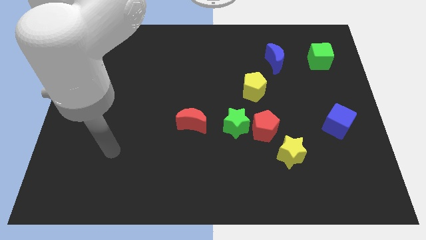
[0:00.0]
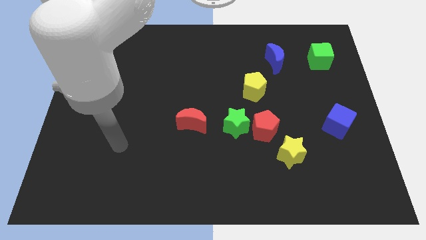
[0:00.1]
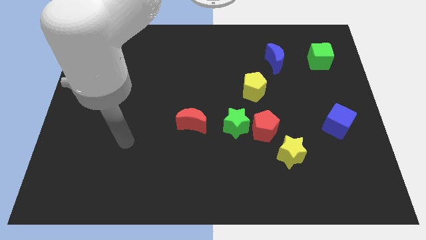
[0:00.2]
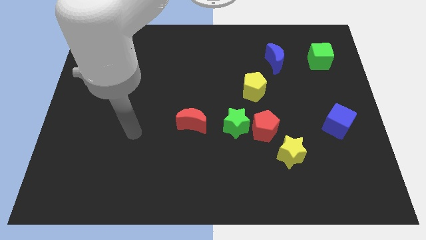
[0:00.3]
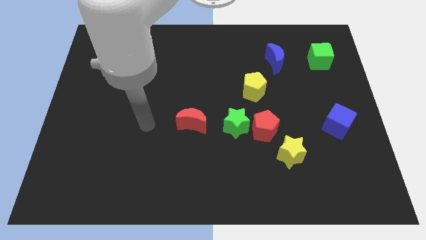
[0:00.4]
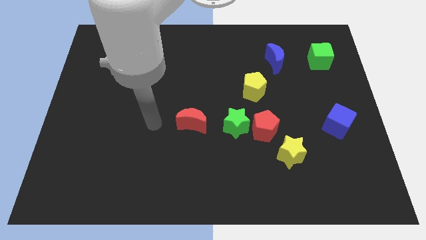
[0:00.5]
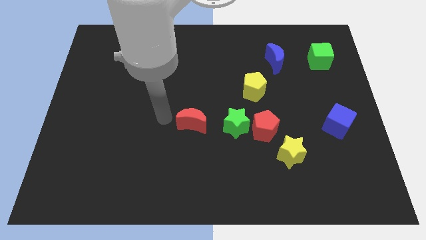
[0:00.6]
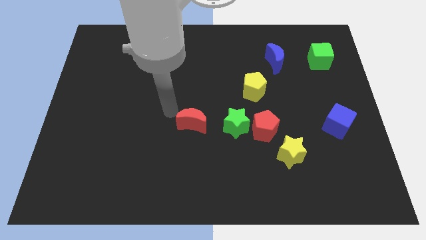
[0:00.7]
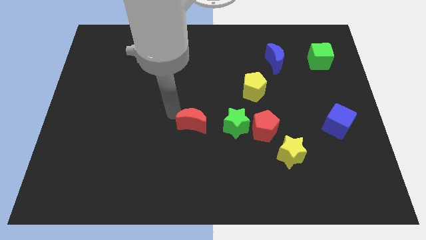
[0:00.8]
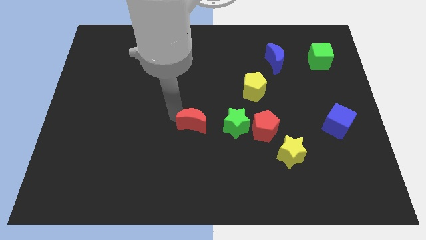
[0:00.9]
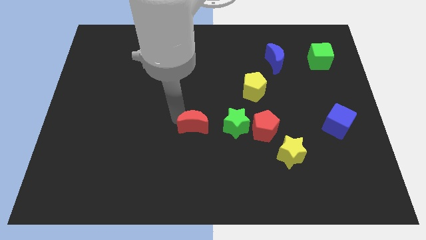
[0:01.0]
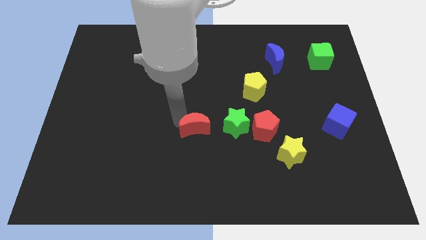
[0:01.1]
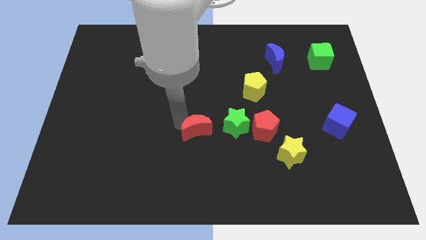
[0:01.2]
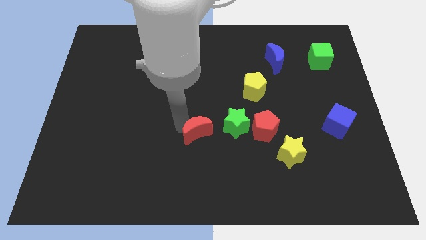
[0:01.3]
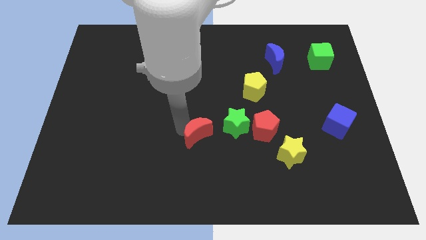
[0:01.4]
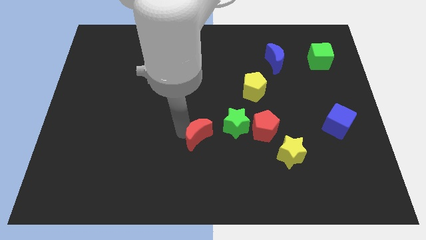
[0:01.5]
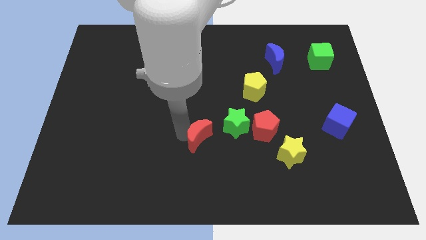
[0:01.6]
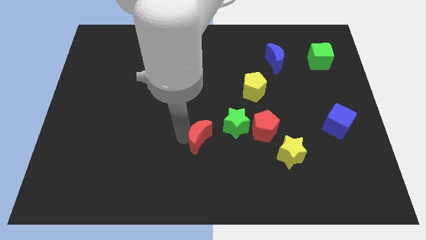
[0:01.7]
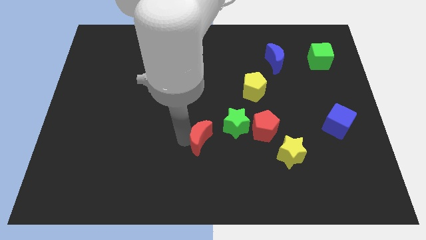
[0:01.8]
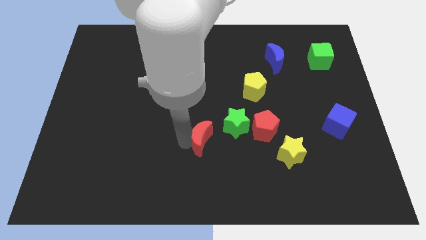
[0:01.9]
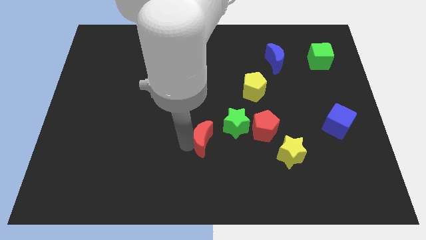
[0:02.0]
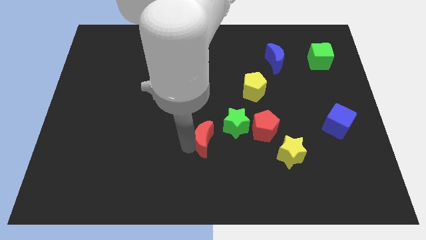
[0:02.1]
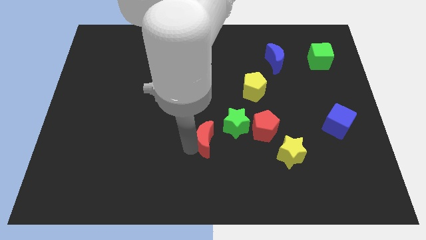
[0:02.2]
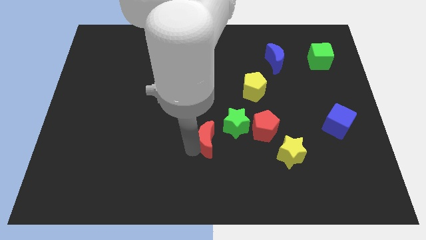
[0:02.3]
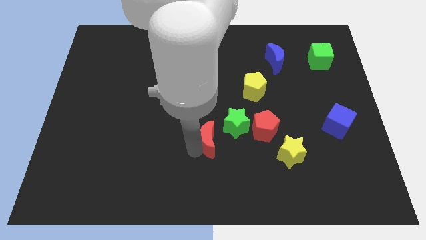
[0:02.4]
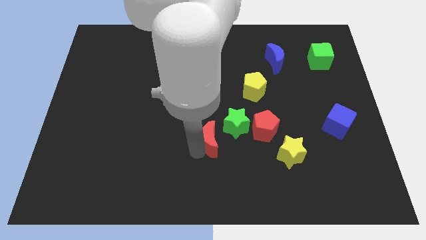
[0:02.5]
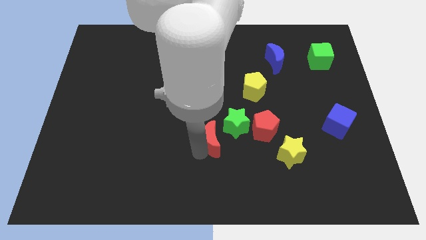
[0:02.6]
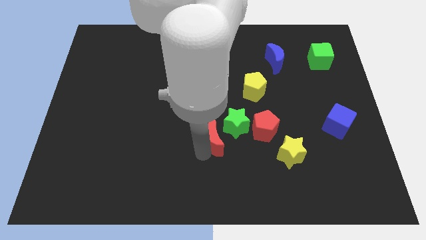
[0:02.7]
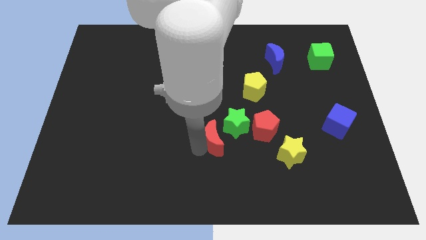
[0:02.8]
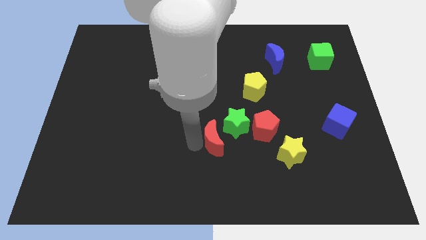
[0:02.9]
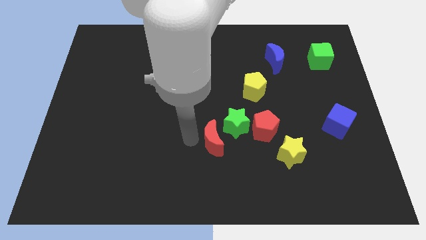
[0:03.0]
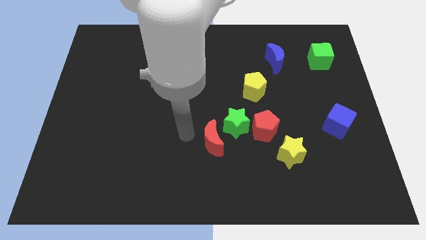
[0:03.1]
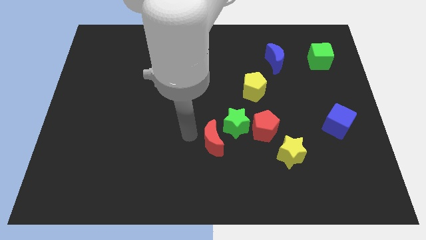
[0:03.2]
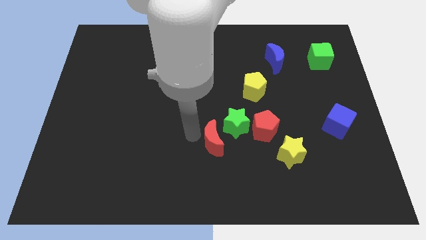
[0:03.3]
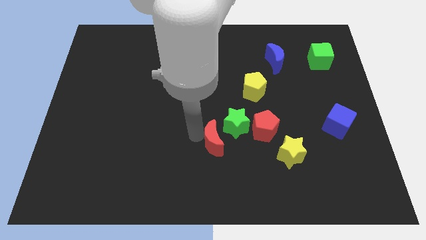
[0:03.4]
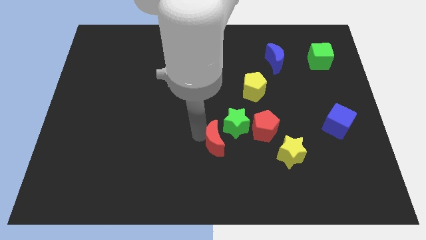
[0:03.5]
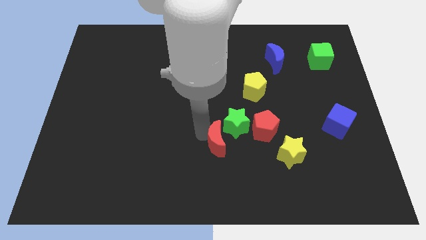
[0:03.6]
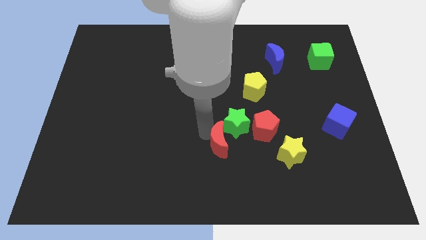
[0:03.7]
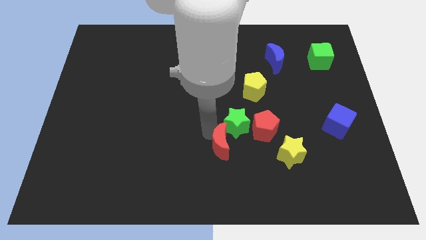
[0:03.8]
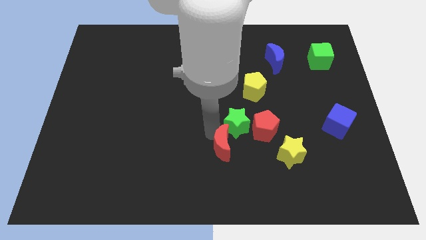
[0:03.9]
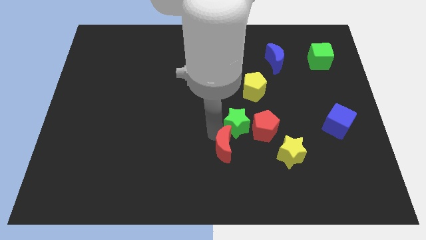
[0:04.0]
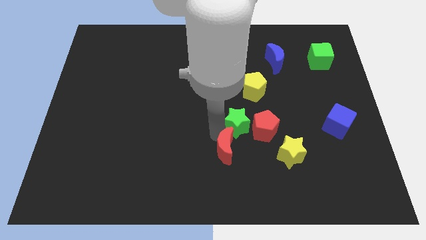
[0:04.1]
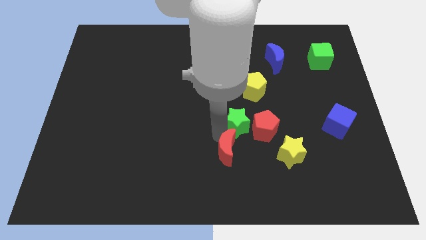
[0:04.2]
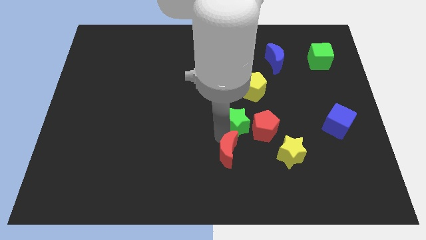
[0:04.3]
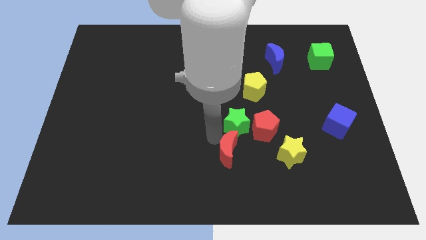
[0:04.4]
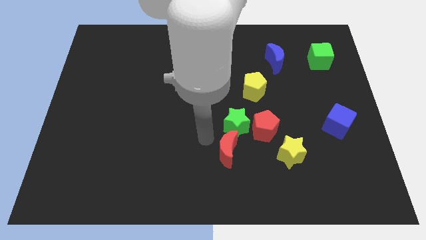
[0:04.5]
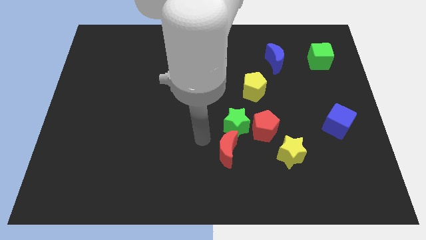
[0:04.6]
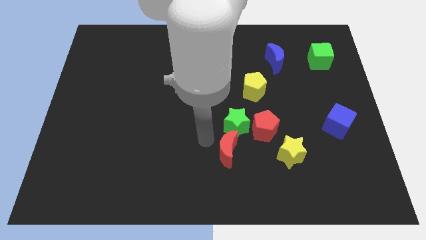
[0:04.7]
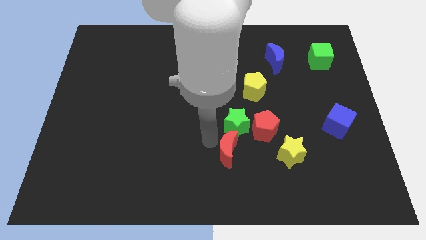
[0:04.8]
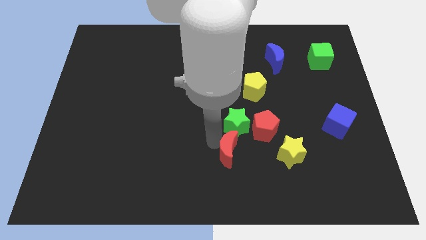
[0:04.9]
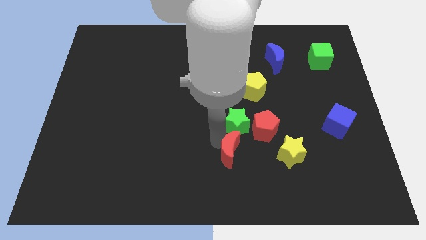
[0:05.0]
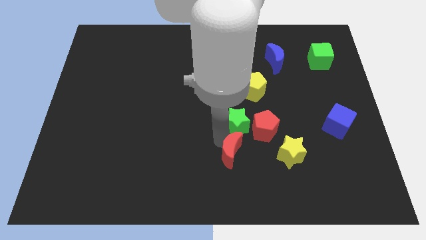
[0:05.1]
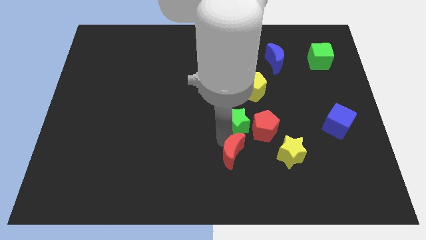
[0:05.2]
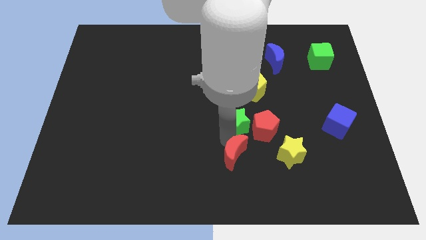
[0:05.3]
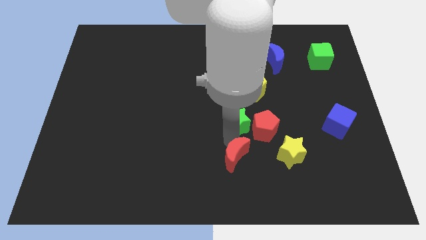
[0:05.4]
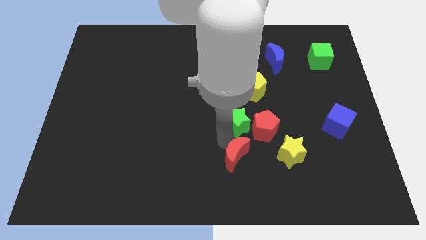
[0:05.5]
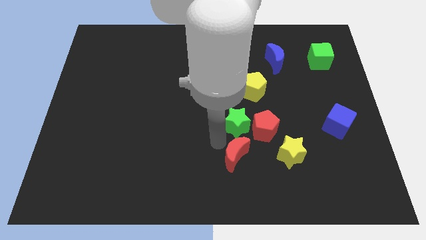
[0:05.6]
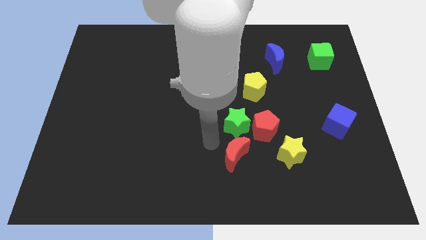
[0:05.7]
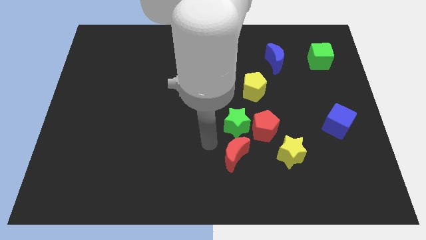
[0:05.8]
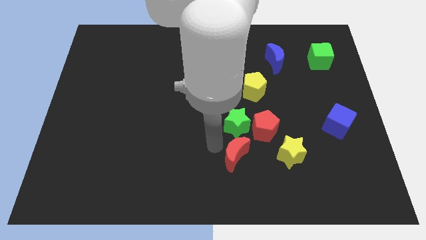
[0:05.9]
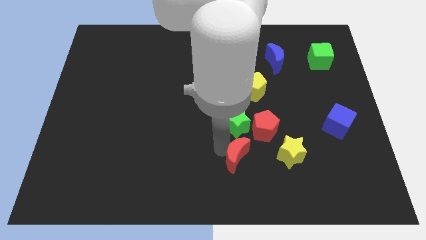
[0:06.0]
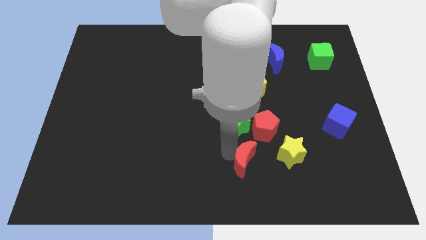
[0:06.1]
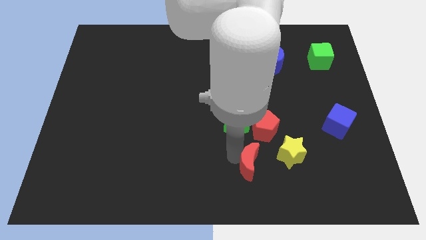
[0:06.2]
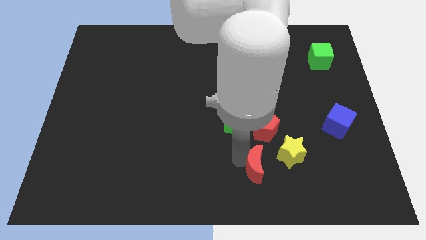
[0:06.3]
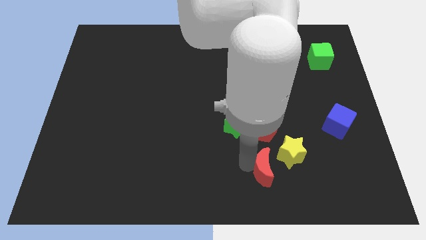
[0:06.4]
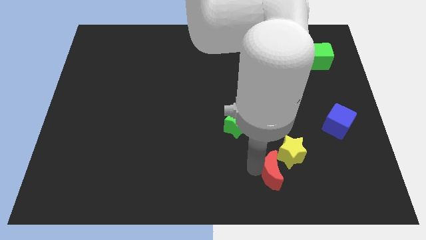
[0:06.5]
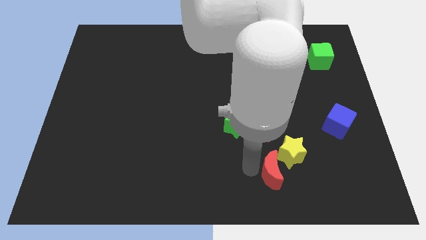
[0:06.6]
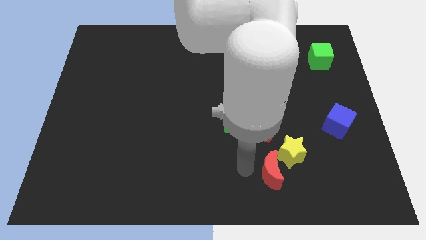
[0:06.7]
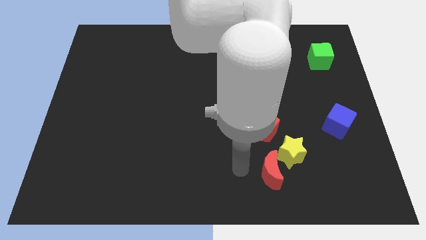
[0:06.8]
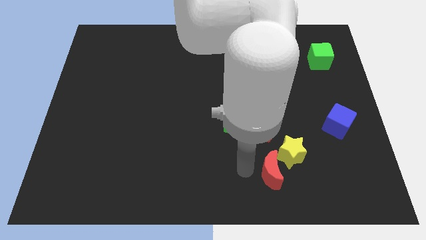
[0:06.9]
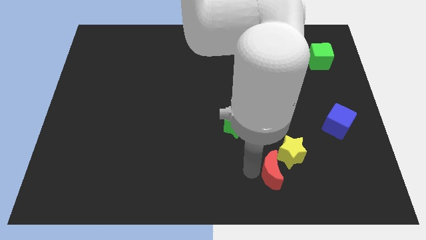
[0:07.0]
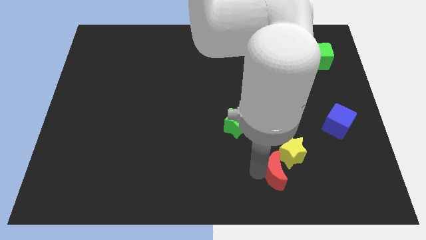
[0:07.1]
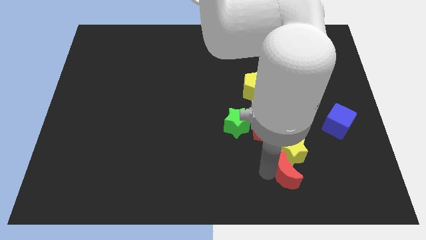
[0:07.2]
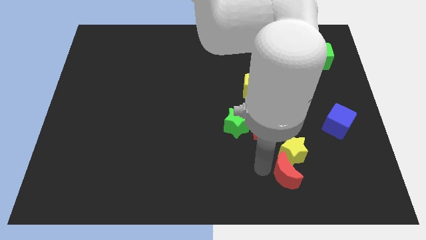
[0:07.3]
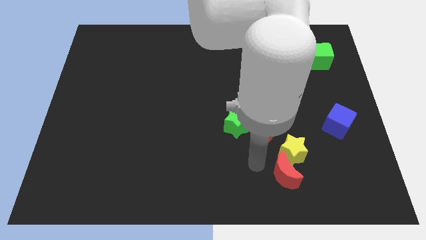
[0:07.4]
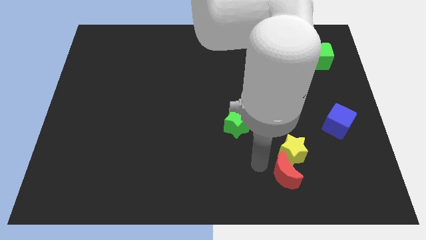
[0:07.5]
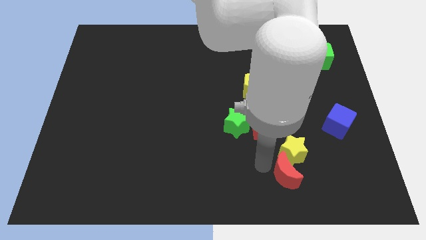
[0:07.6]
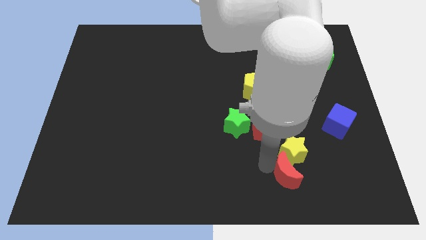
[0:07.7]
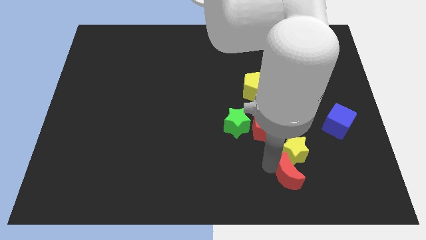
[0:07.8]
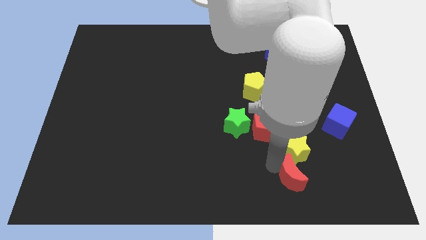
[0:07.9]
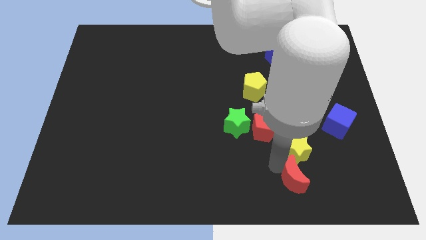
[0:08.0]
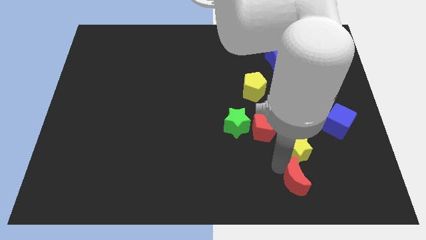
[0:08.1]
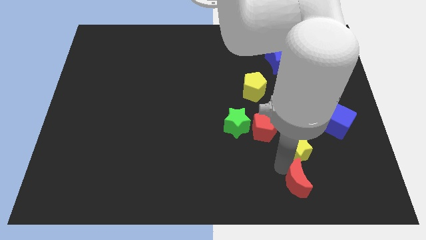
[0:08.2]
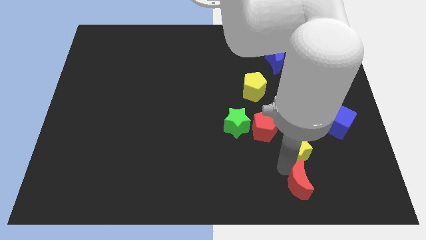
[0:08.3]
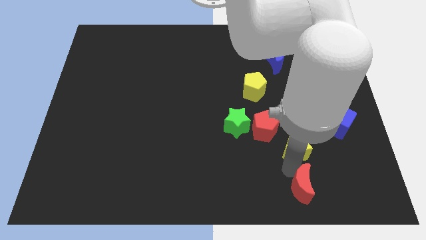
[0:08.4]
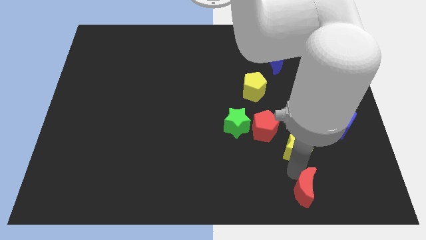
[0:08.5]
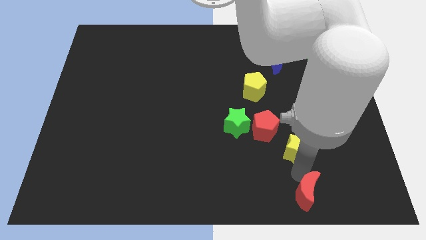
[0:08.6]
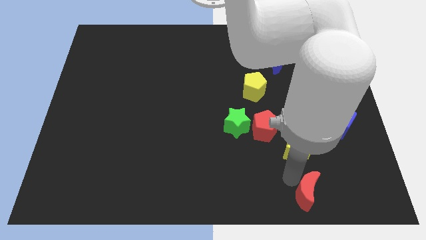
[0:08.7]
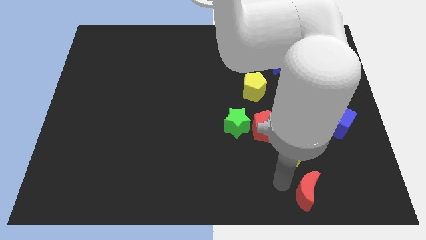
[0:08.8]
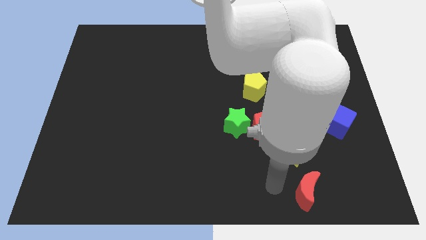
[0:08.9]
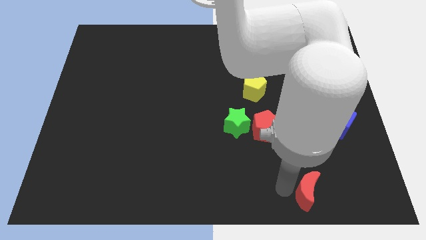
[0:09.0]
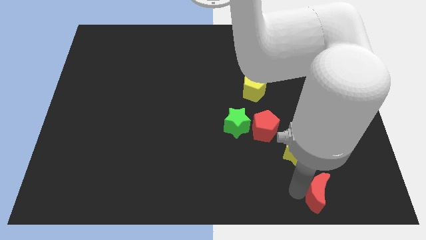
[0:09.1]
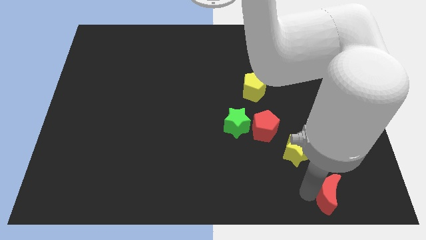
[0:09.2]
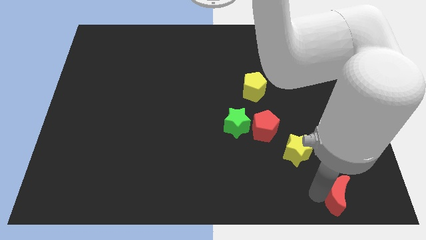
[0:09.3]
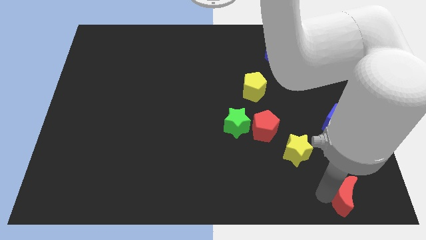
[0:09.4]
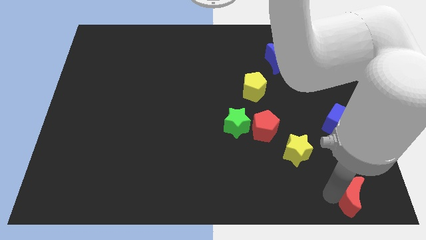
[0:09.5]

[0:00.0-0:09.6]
slide the red moon to the bottom right
